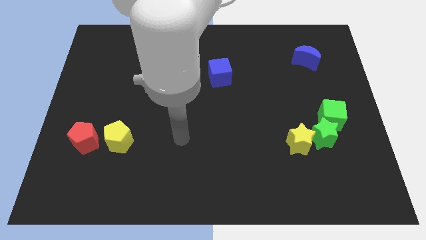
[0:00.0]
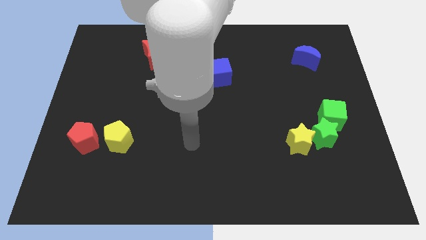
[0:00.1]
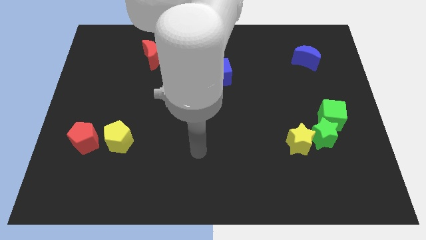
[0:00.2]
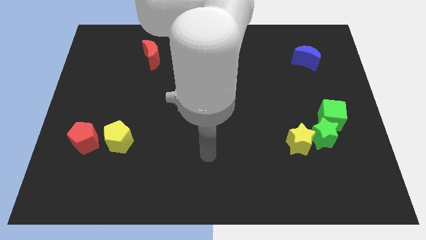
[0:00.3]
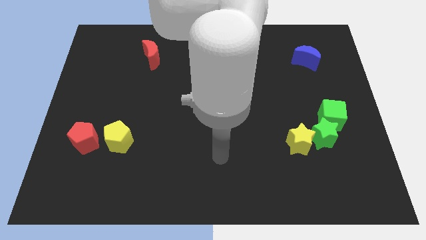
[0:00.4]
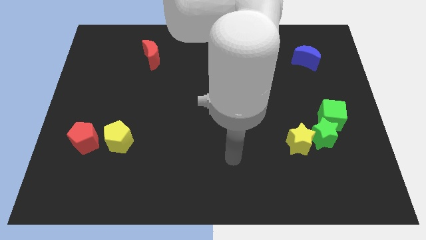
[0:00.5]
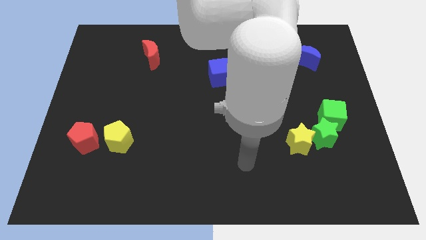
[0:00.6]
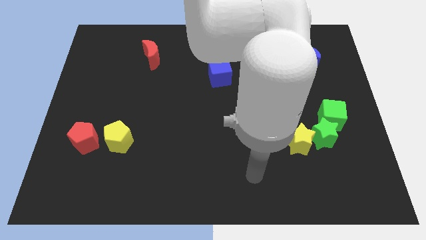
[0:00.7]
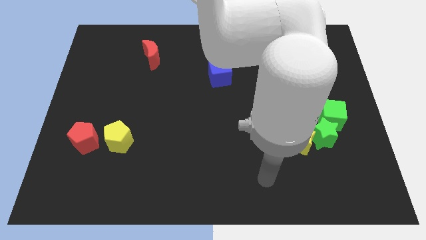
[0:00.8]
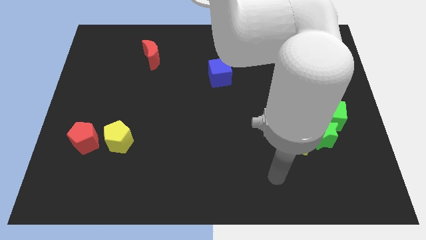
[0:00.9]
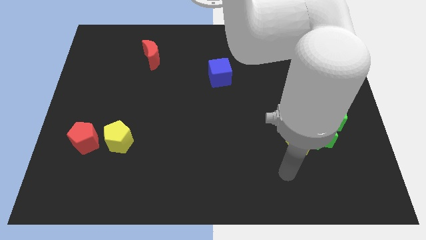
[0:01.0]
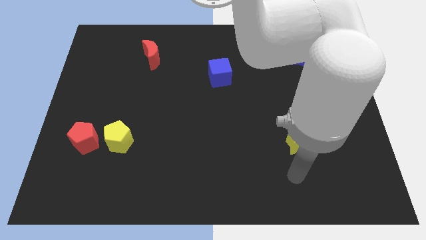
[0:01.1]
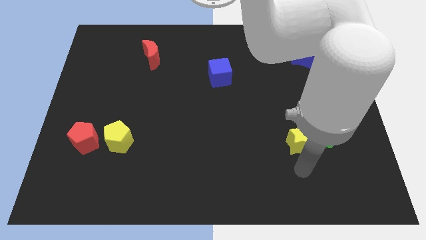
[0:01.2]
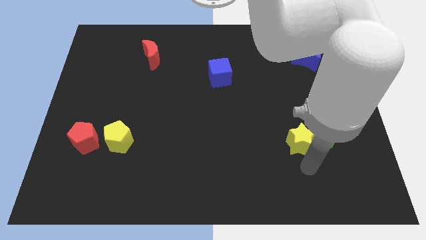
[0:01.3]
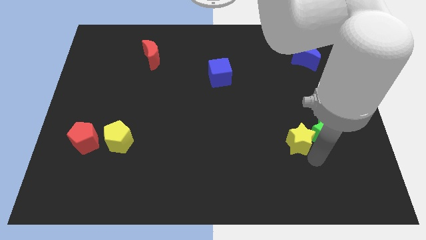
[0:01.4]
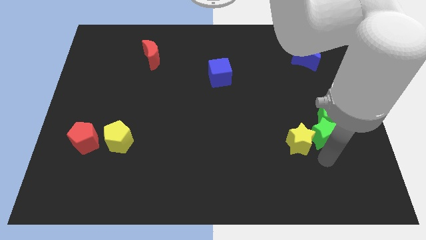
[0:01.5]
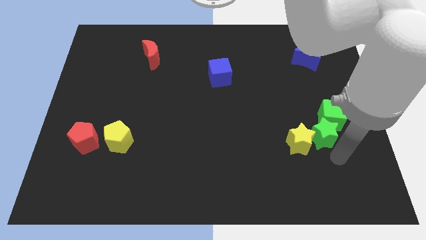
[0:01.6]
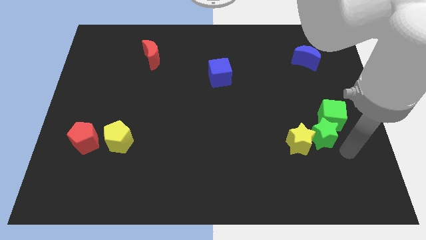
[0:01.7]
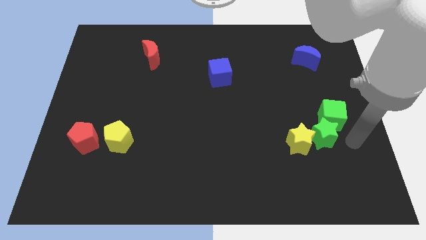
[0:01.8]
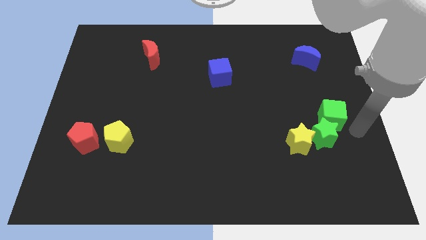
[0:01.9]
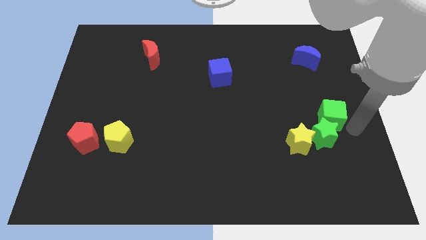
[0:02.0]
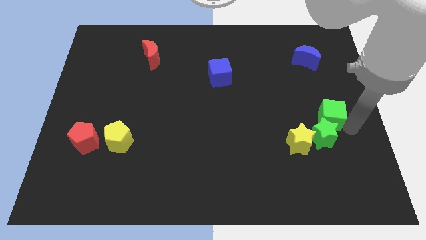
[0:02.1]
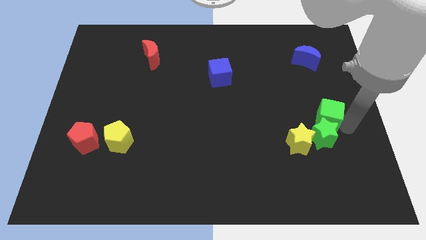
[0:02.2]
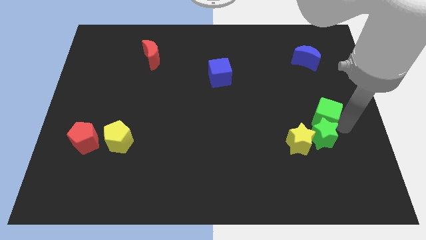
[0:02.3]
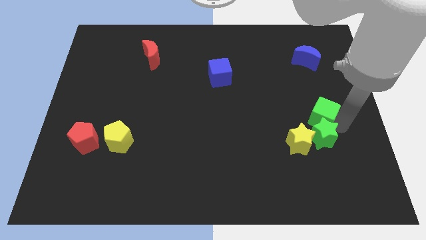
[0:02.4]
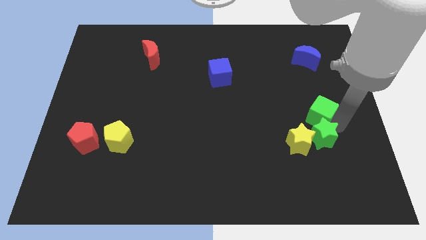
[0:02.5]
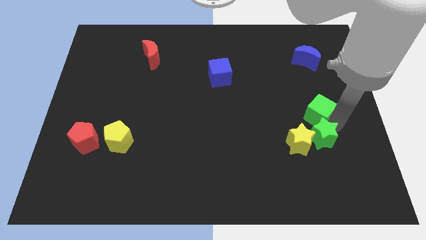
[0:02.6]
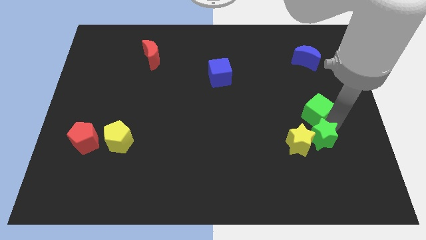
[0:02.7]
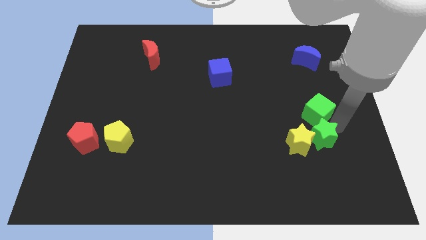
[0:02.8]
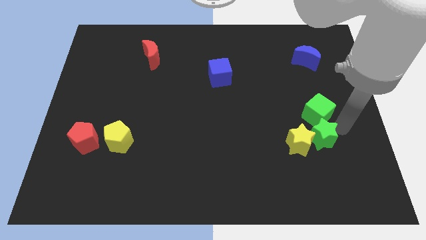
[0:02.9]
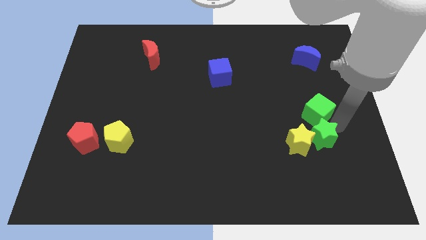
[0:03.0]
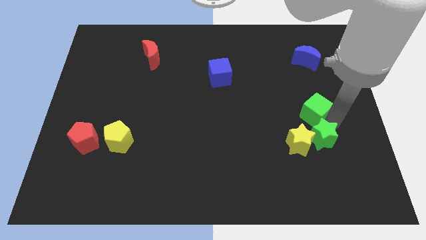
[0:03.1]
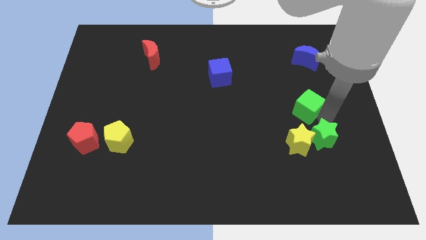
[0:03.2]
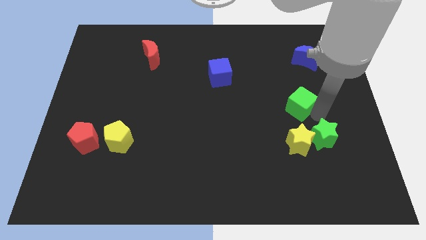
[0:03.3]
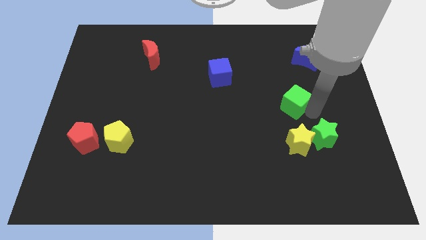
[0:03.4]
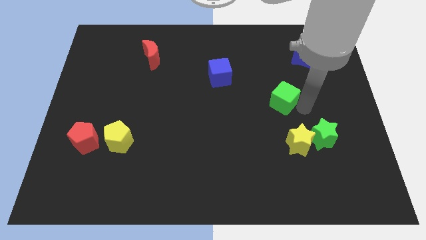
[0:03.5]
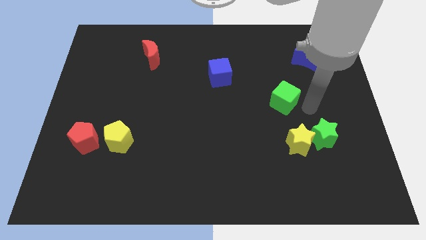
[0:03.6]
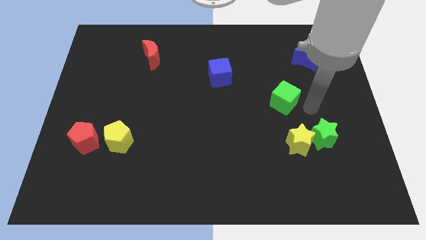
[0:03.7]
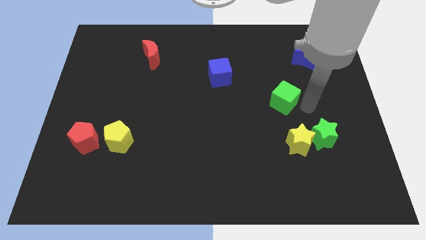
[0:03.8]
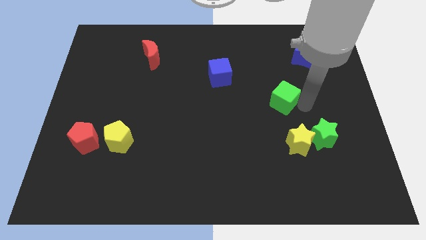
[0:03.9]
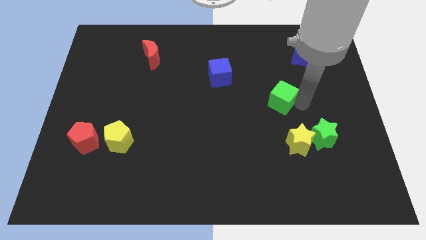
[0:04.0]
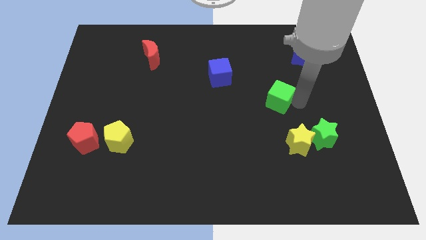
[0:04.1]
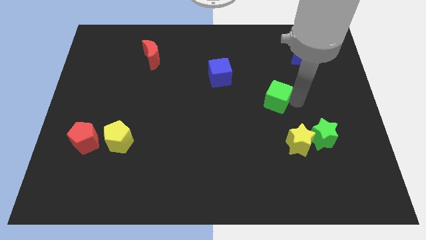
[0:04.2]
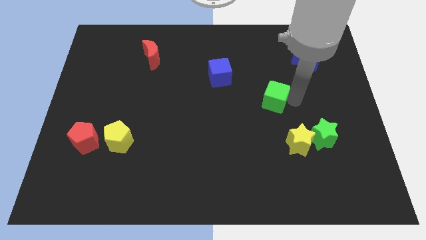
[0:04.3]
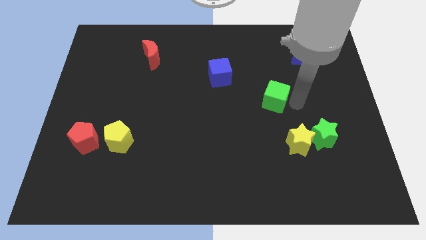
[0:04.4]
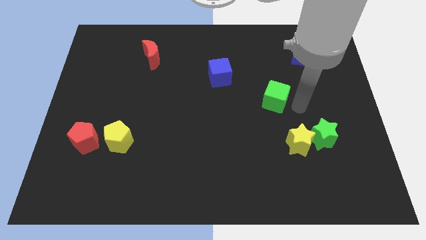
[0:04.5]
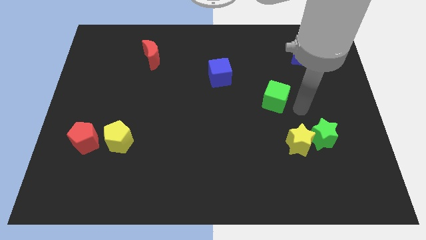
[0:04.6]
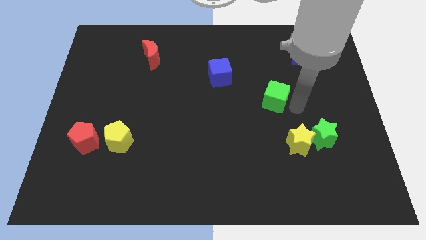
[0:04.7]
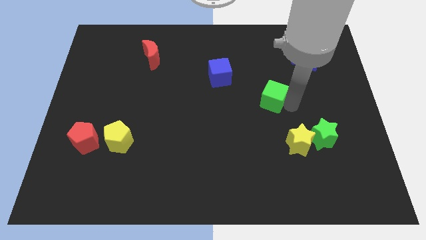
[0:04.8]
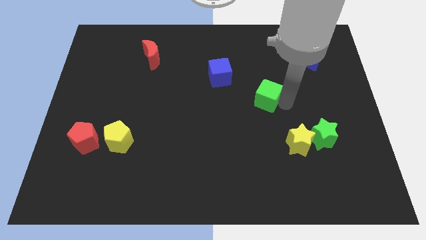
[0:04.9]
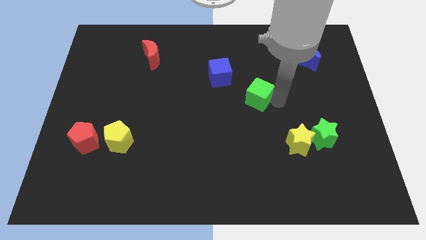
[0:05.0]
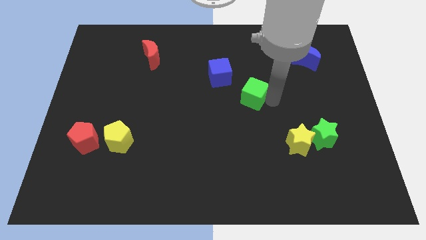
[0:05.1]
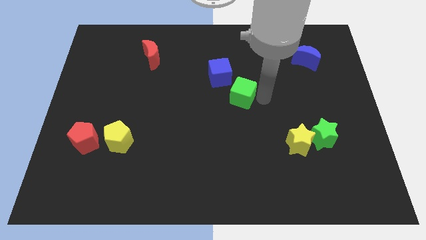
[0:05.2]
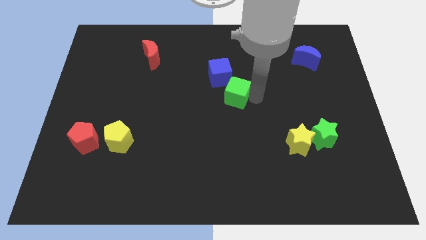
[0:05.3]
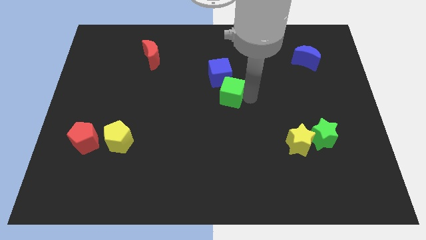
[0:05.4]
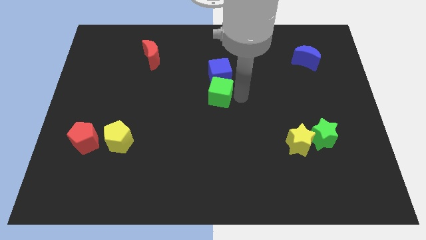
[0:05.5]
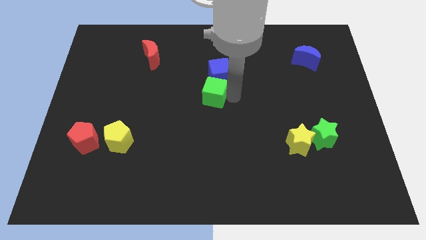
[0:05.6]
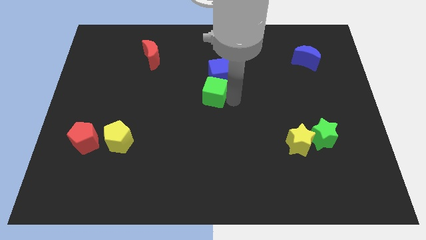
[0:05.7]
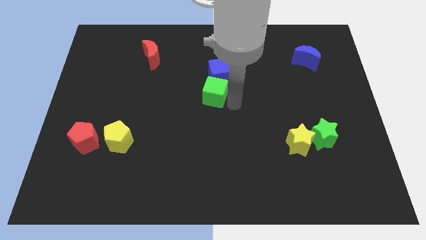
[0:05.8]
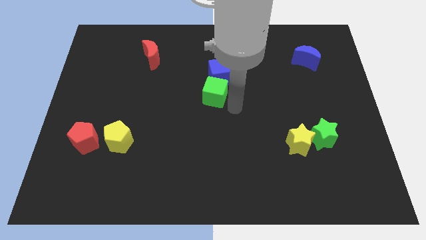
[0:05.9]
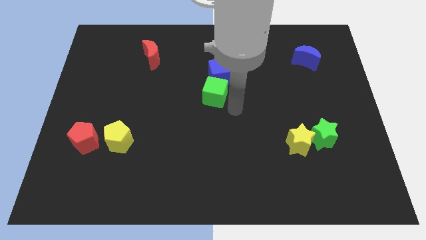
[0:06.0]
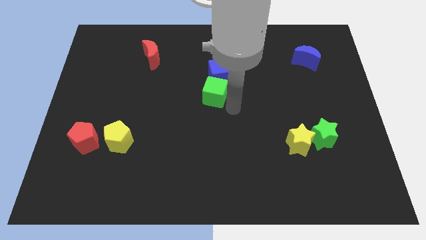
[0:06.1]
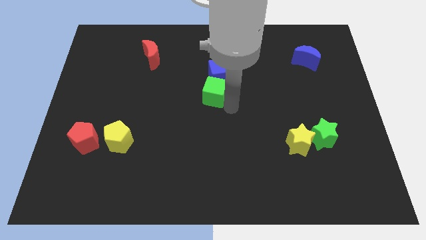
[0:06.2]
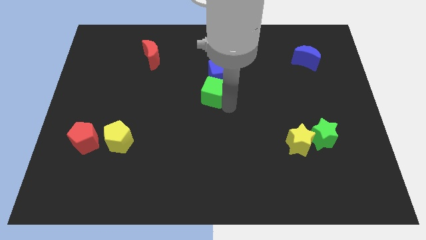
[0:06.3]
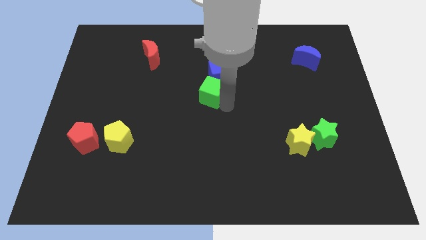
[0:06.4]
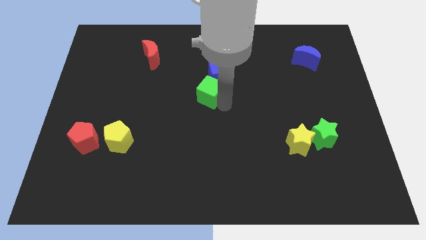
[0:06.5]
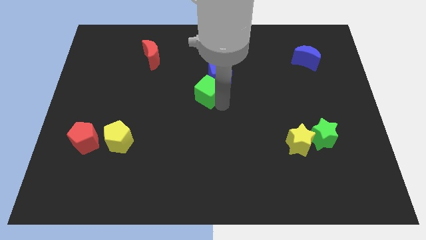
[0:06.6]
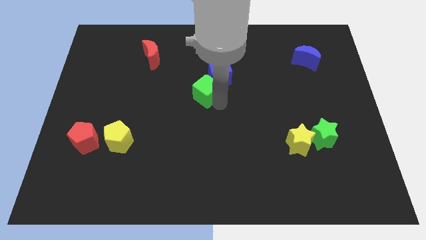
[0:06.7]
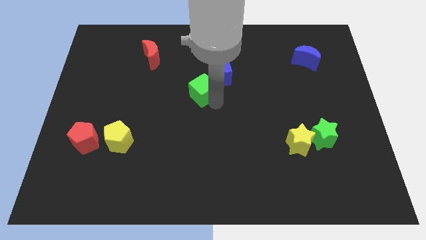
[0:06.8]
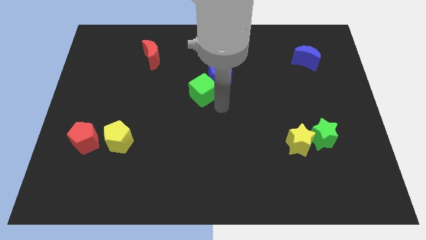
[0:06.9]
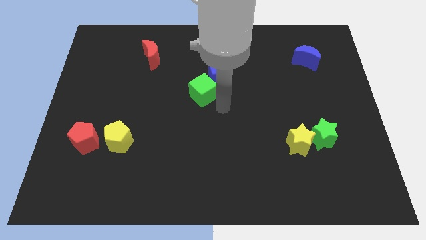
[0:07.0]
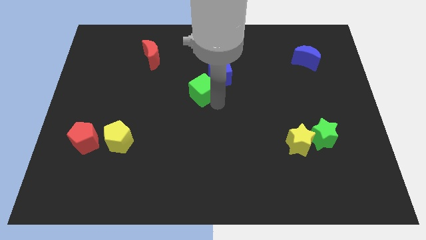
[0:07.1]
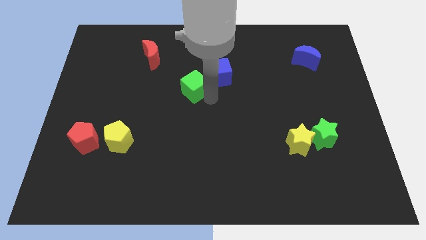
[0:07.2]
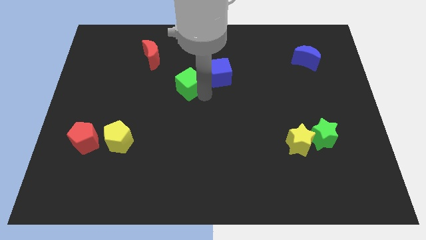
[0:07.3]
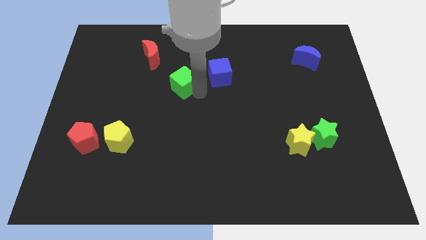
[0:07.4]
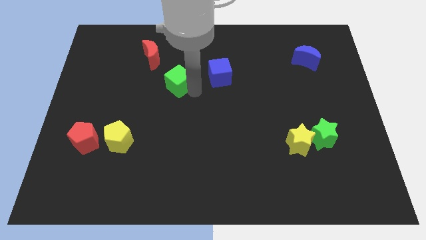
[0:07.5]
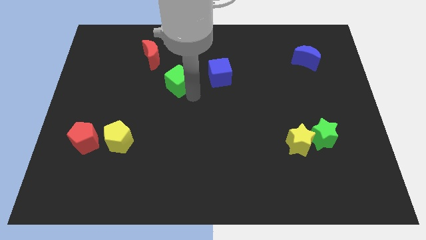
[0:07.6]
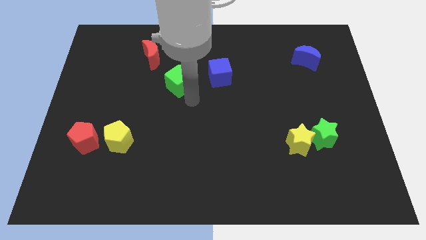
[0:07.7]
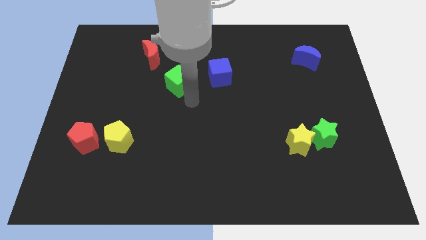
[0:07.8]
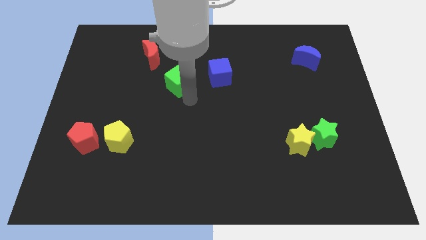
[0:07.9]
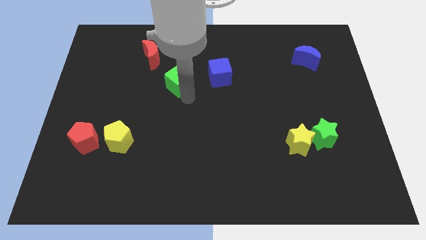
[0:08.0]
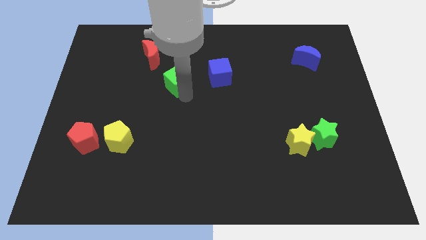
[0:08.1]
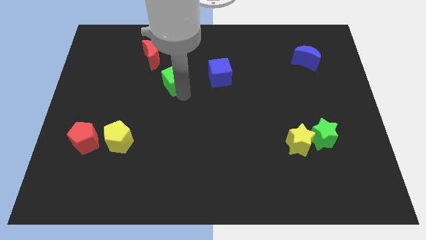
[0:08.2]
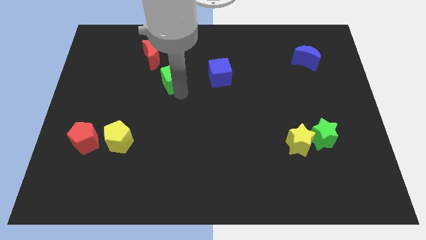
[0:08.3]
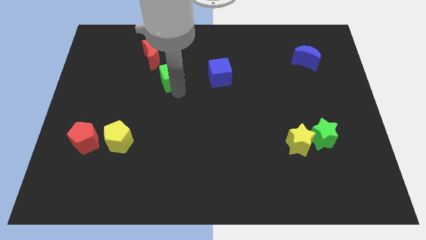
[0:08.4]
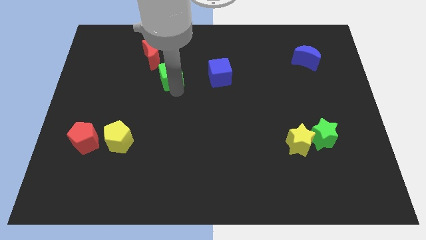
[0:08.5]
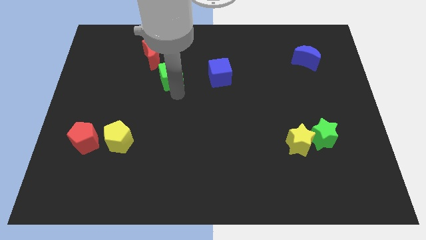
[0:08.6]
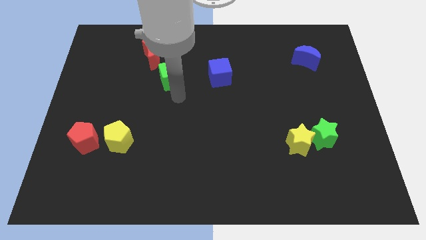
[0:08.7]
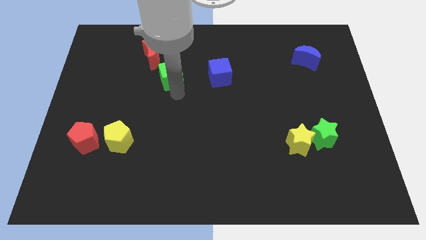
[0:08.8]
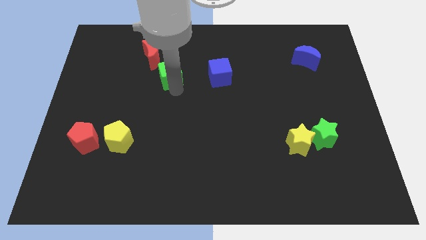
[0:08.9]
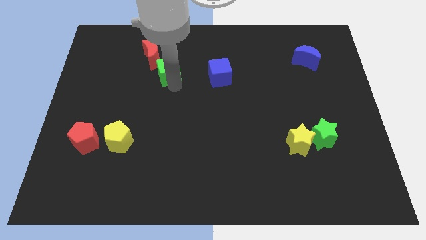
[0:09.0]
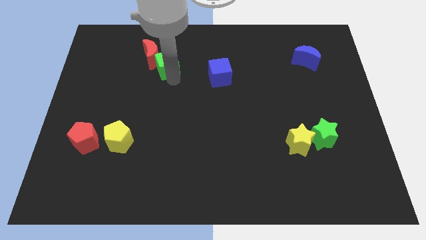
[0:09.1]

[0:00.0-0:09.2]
slide the green cube towards the red moon
